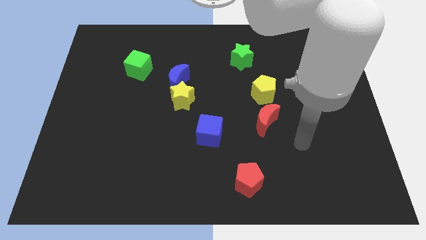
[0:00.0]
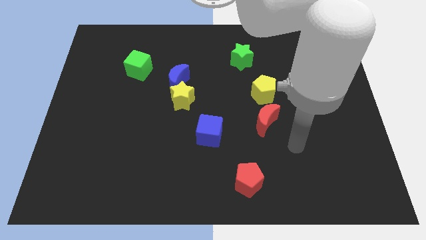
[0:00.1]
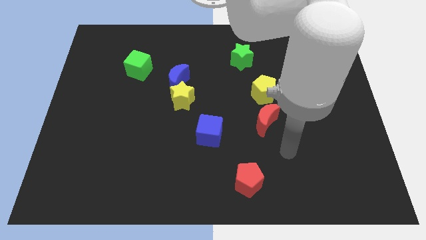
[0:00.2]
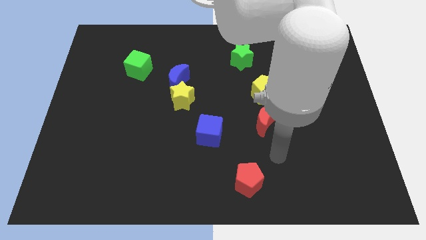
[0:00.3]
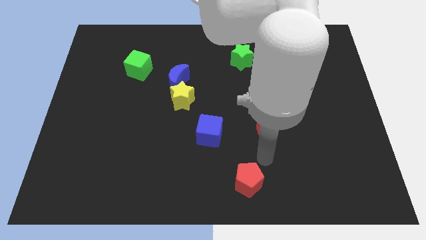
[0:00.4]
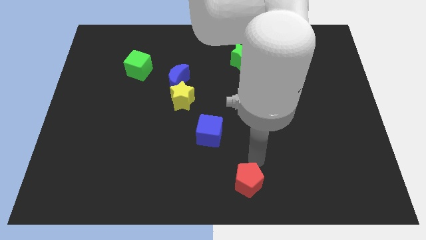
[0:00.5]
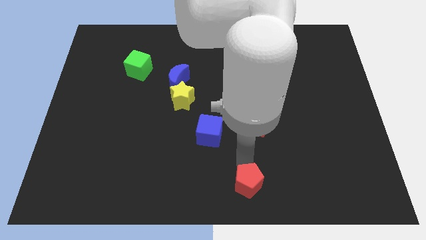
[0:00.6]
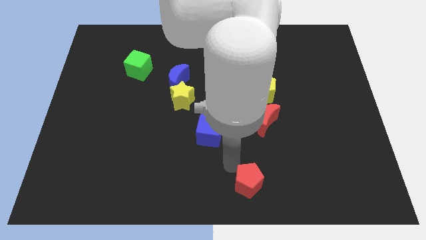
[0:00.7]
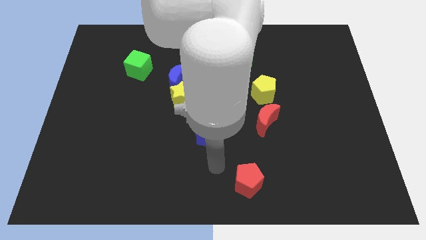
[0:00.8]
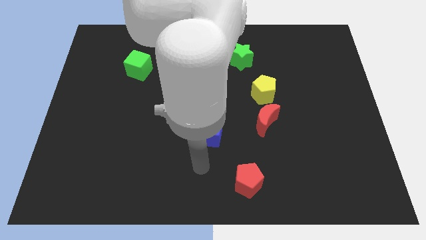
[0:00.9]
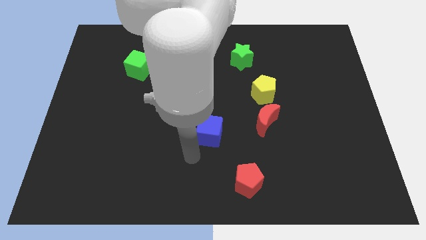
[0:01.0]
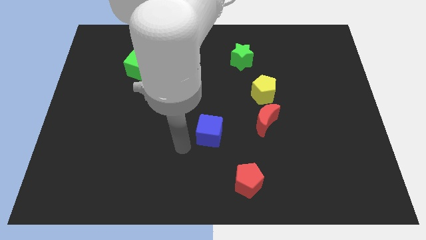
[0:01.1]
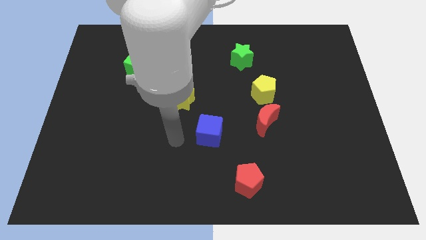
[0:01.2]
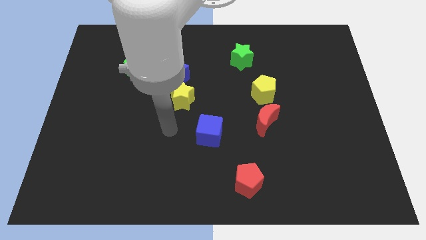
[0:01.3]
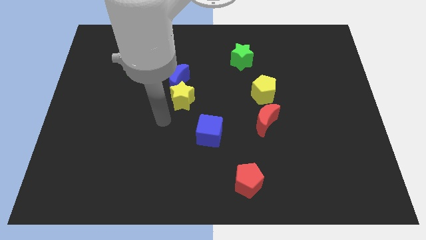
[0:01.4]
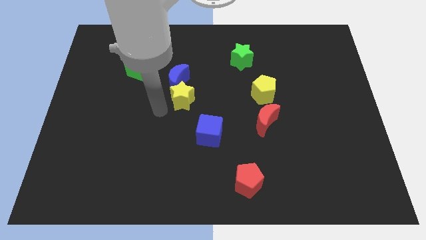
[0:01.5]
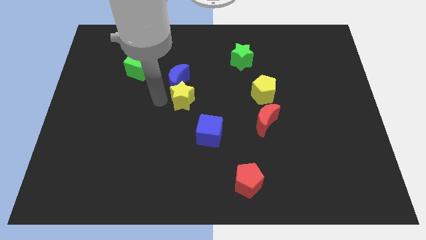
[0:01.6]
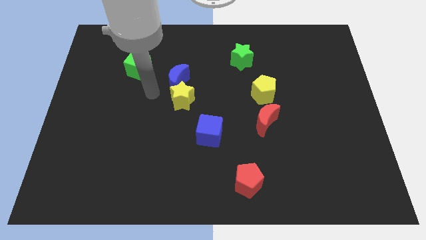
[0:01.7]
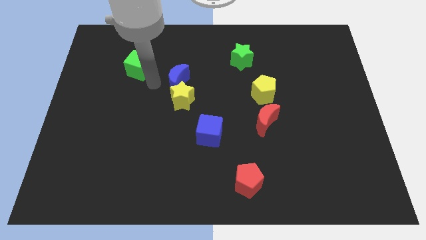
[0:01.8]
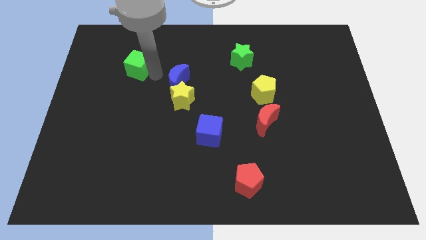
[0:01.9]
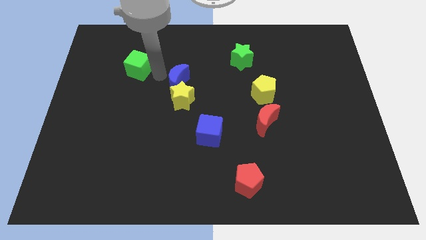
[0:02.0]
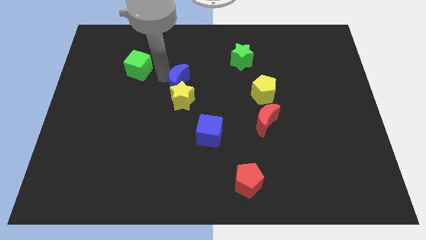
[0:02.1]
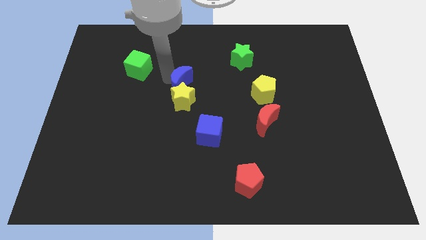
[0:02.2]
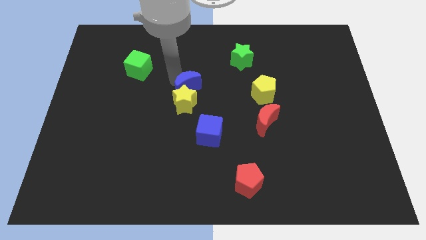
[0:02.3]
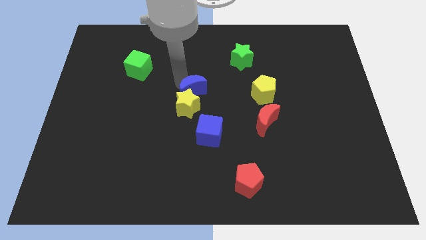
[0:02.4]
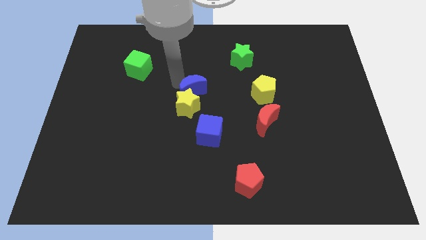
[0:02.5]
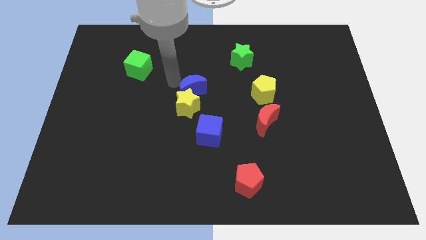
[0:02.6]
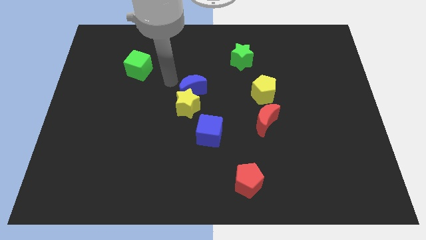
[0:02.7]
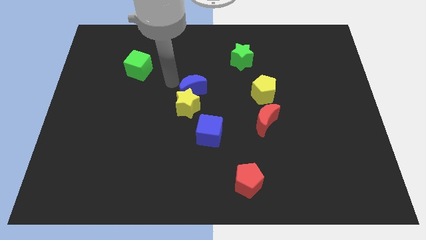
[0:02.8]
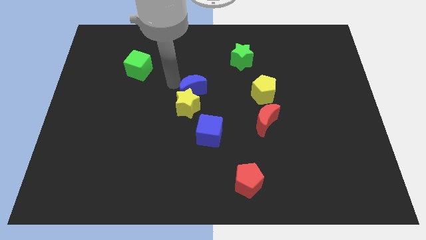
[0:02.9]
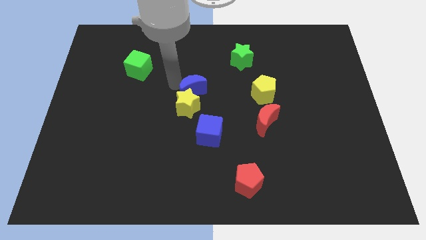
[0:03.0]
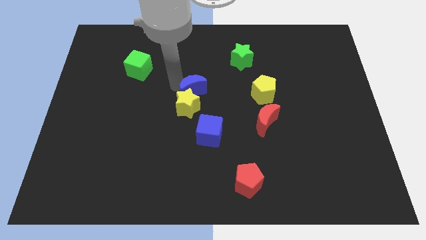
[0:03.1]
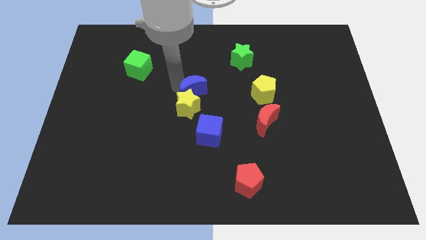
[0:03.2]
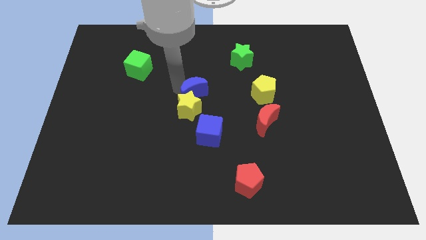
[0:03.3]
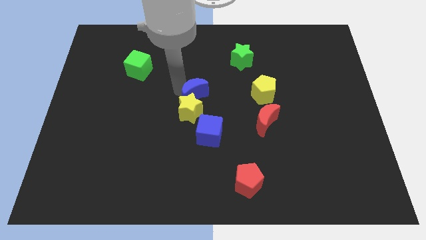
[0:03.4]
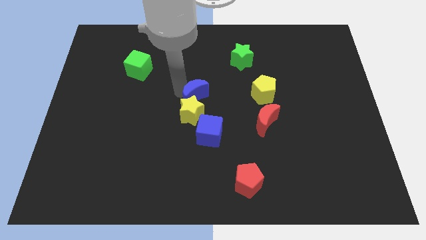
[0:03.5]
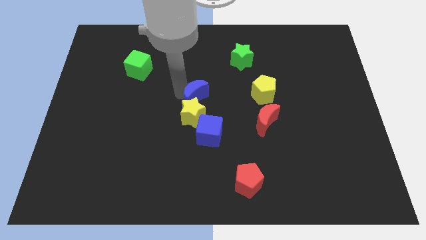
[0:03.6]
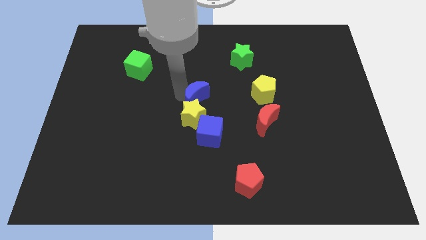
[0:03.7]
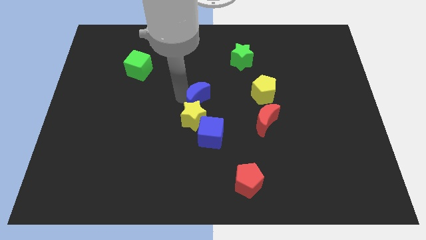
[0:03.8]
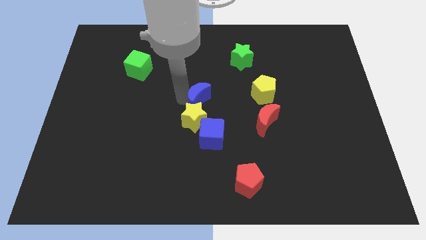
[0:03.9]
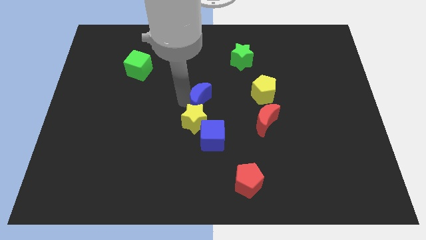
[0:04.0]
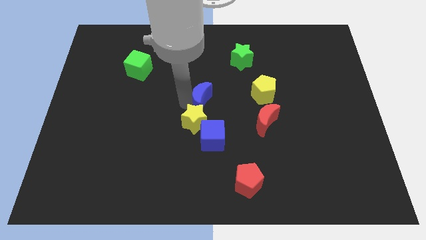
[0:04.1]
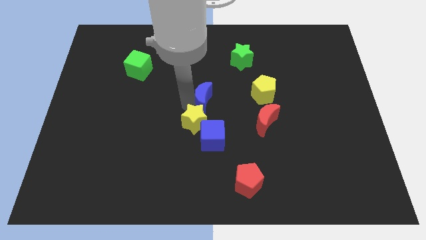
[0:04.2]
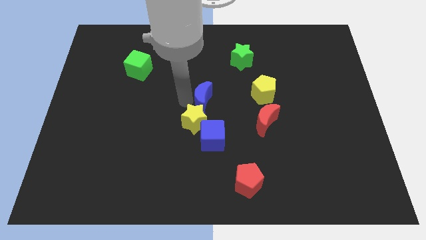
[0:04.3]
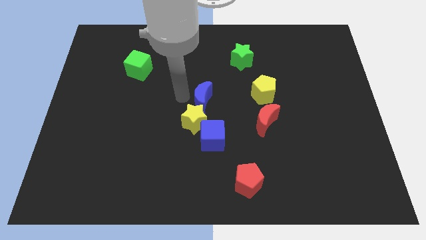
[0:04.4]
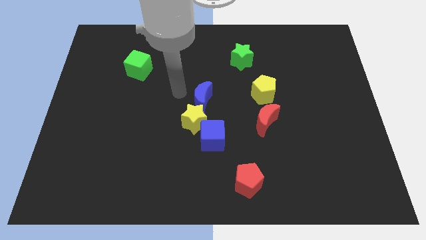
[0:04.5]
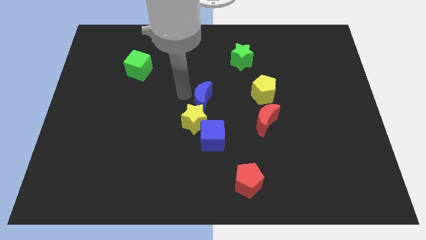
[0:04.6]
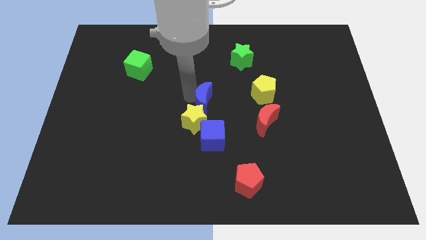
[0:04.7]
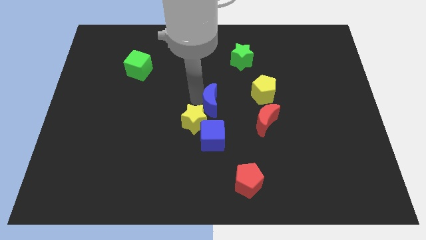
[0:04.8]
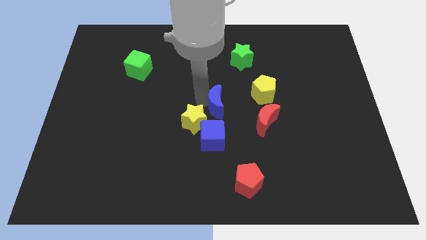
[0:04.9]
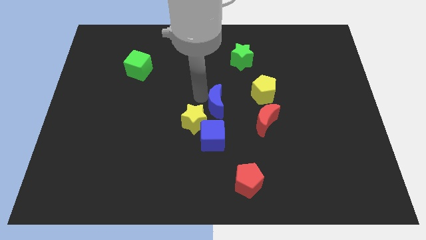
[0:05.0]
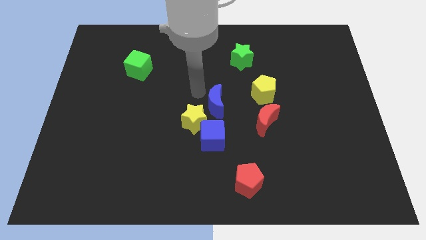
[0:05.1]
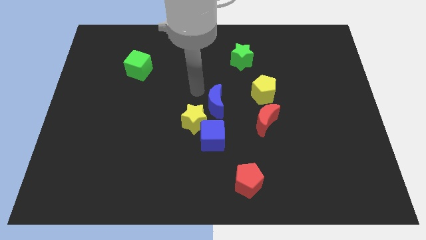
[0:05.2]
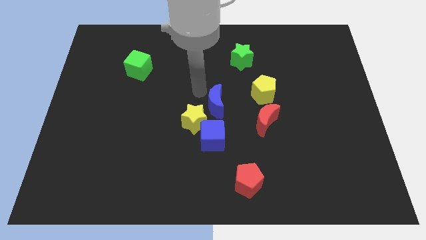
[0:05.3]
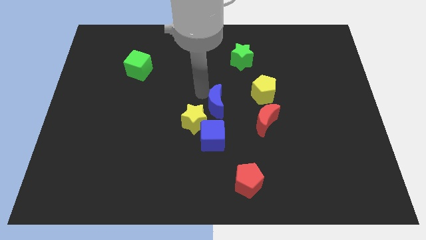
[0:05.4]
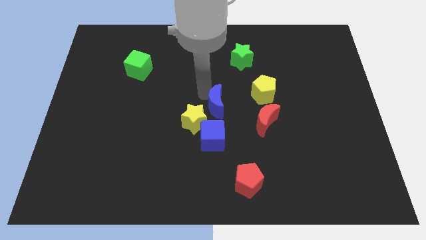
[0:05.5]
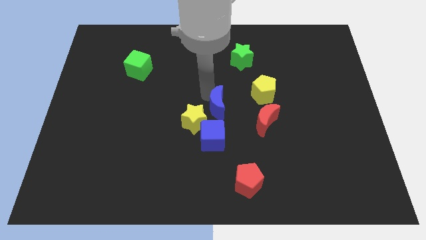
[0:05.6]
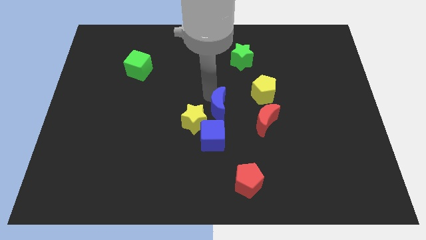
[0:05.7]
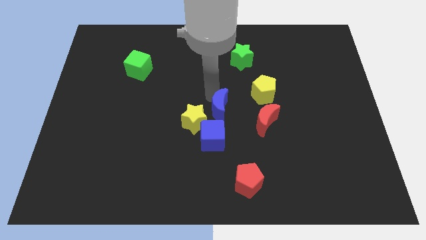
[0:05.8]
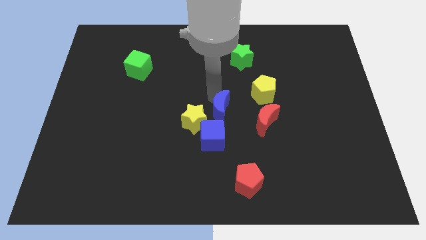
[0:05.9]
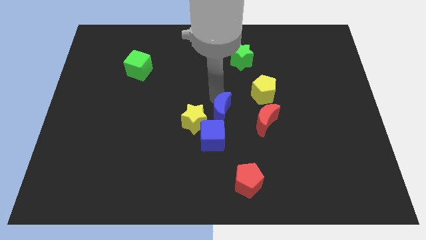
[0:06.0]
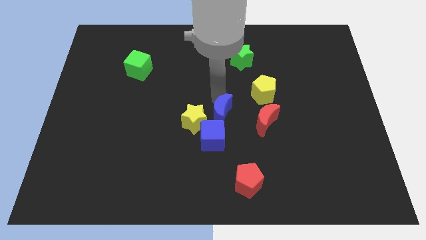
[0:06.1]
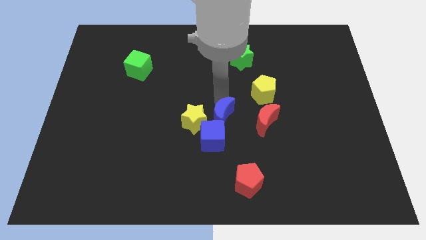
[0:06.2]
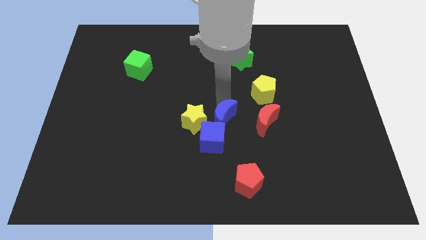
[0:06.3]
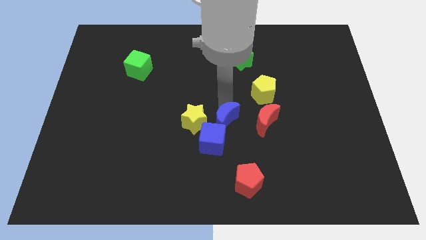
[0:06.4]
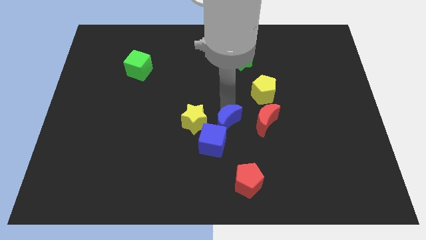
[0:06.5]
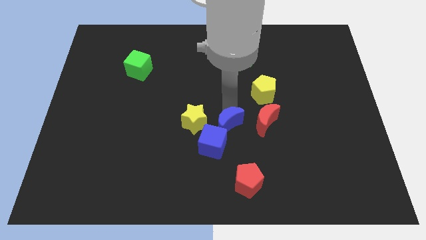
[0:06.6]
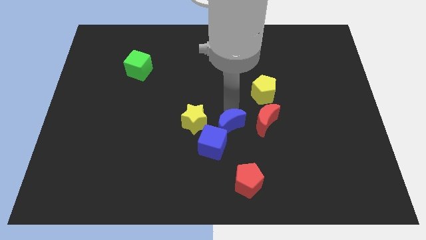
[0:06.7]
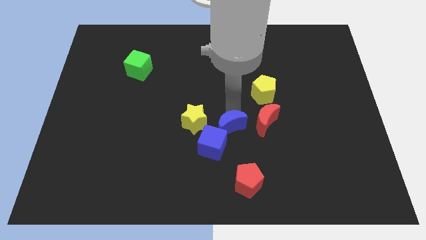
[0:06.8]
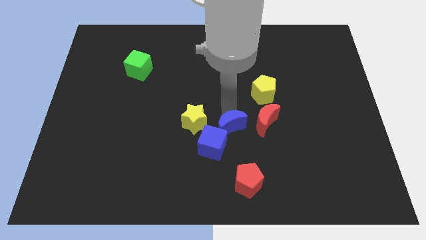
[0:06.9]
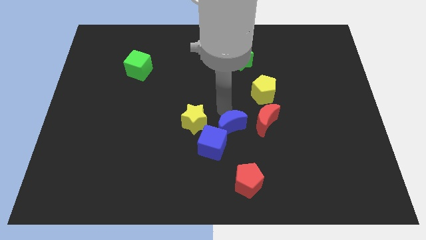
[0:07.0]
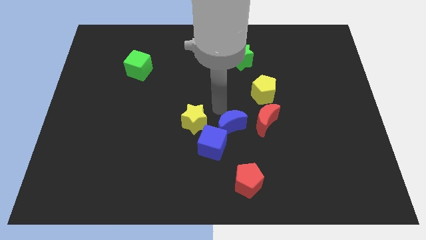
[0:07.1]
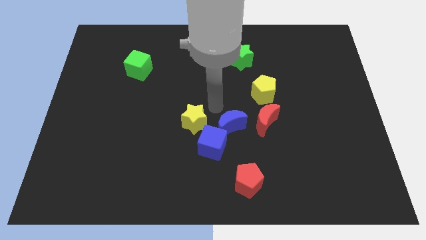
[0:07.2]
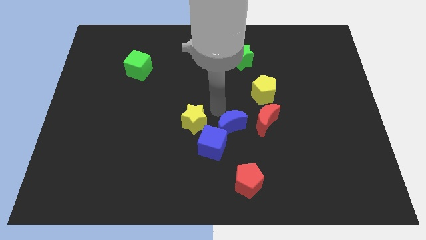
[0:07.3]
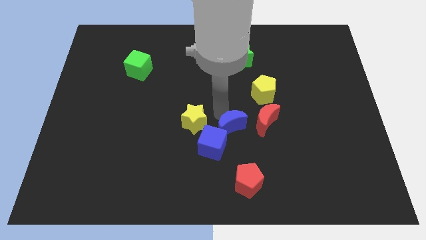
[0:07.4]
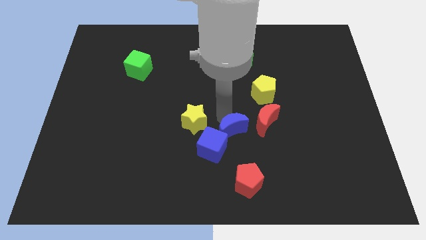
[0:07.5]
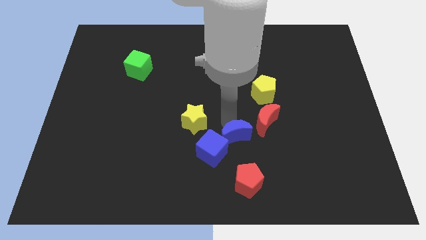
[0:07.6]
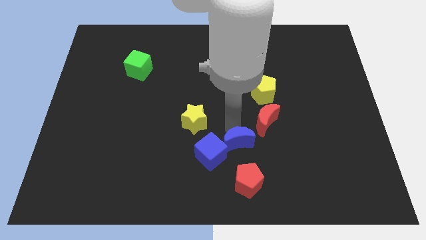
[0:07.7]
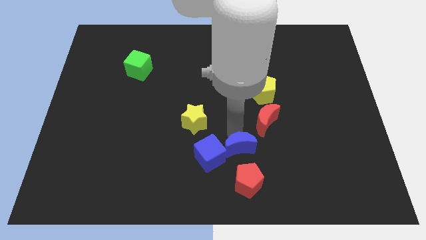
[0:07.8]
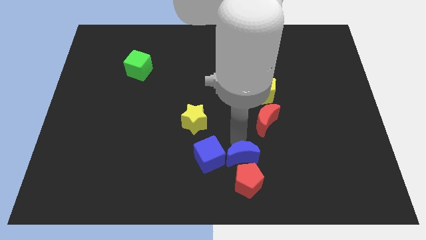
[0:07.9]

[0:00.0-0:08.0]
put the blue moon next to the red pentagon
